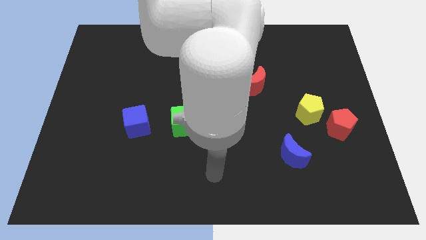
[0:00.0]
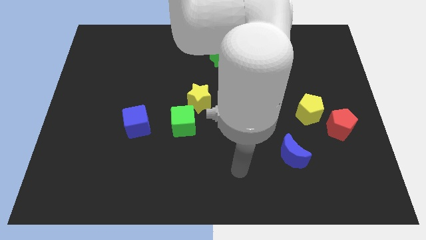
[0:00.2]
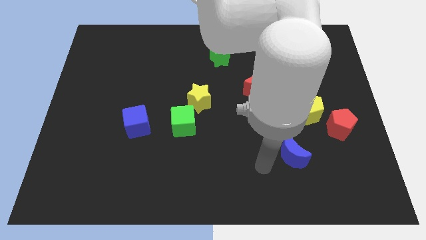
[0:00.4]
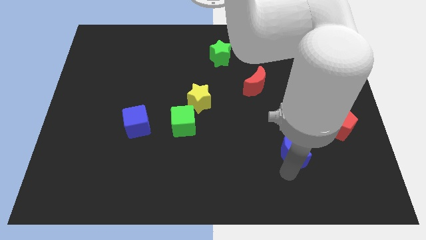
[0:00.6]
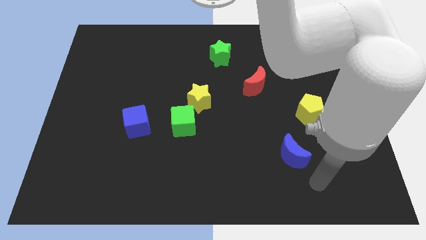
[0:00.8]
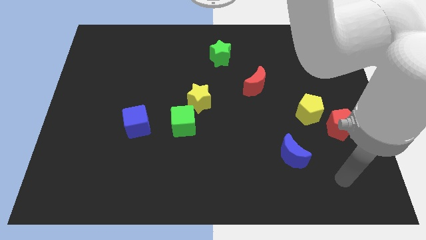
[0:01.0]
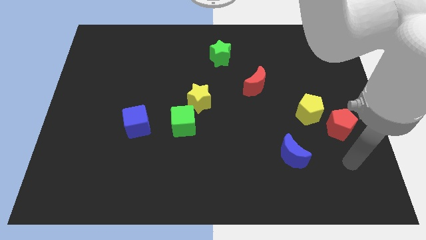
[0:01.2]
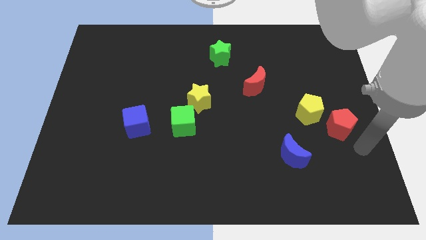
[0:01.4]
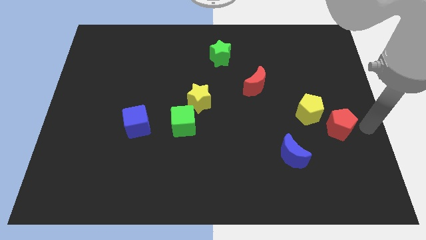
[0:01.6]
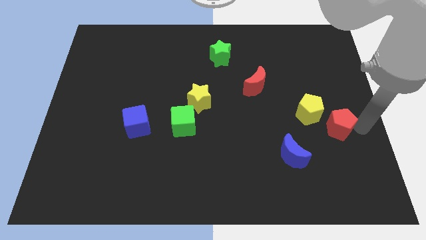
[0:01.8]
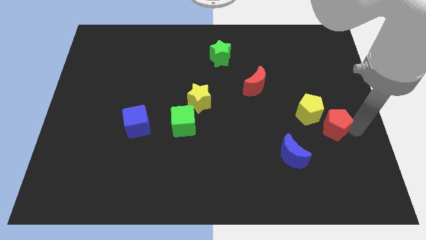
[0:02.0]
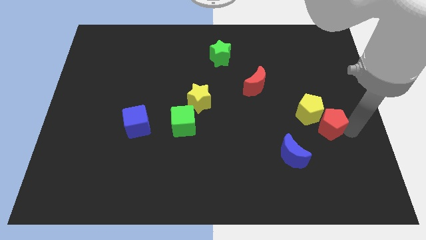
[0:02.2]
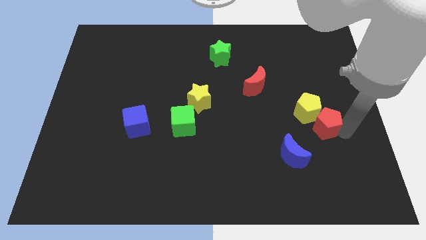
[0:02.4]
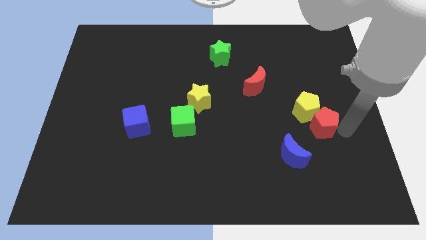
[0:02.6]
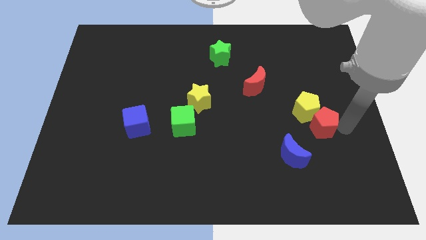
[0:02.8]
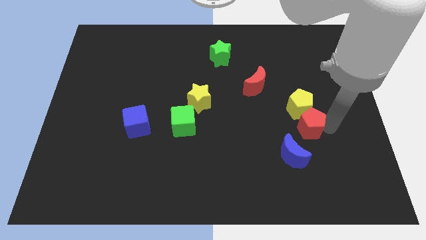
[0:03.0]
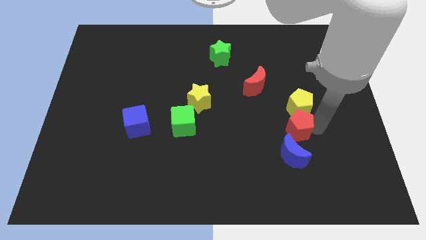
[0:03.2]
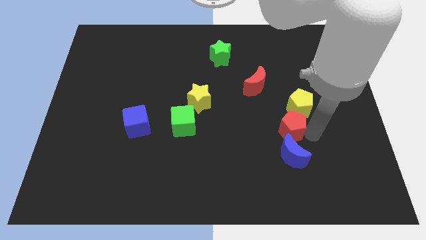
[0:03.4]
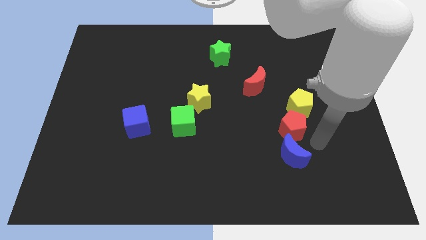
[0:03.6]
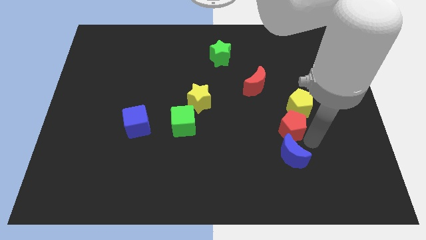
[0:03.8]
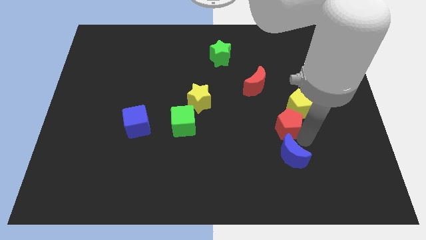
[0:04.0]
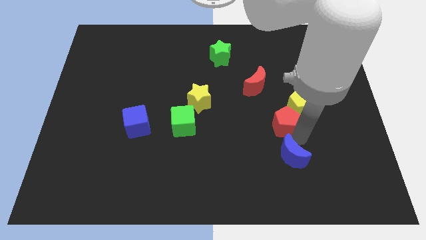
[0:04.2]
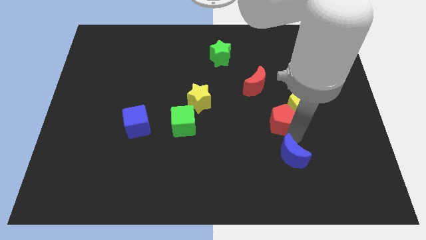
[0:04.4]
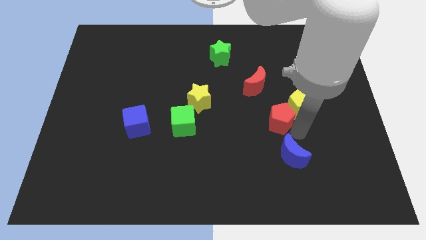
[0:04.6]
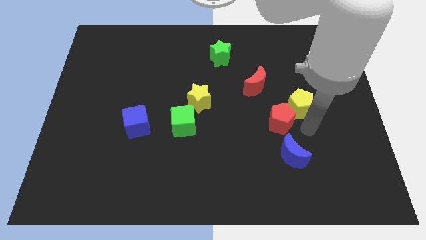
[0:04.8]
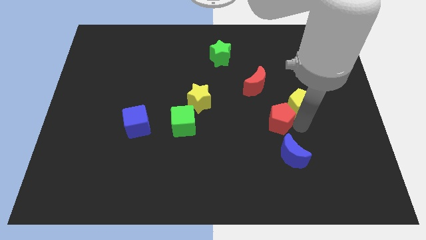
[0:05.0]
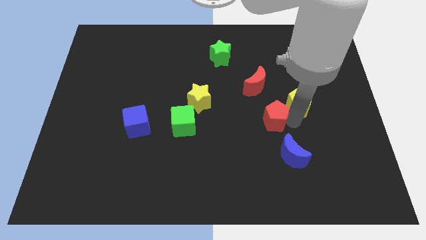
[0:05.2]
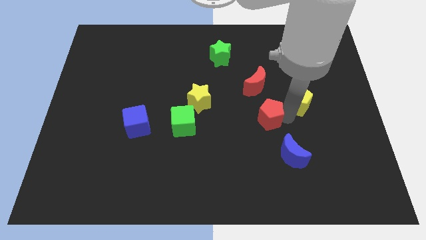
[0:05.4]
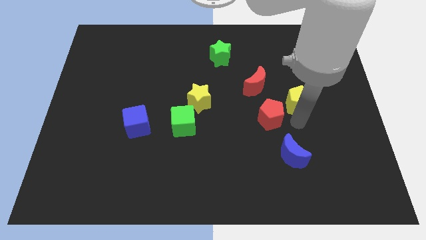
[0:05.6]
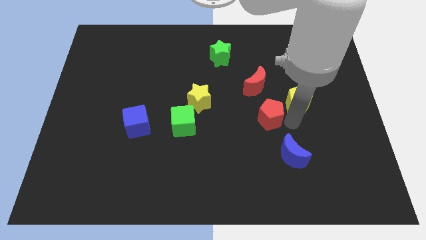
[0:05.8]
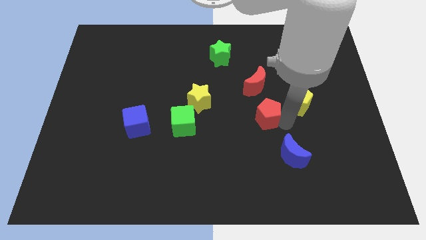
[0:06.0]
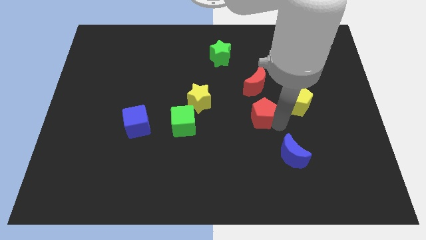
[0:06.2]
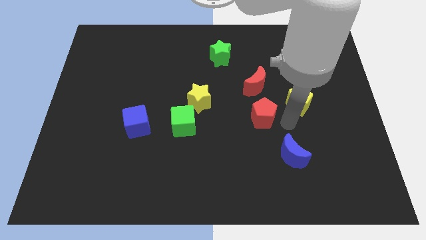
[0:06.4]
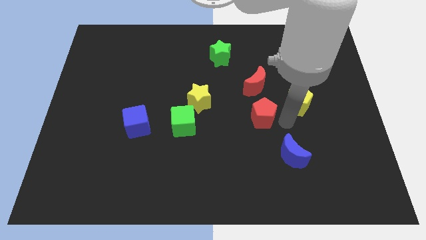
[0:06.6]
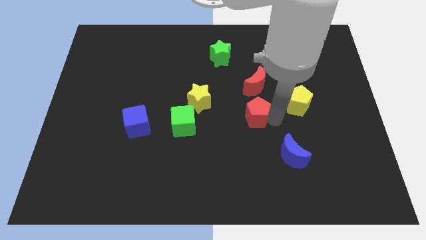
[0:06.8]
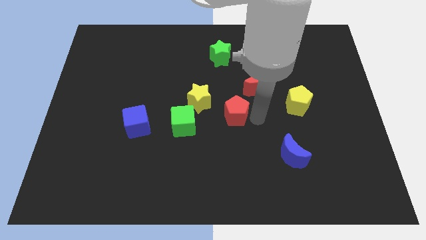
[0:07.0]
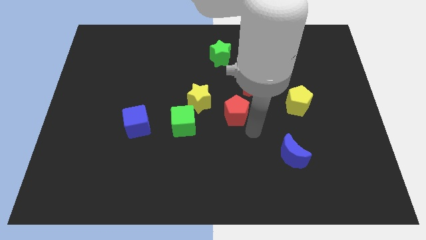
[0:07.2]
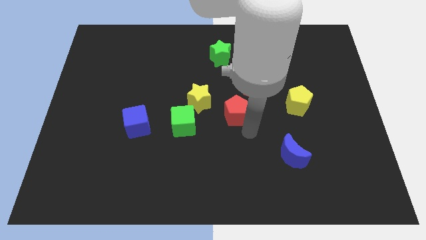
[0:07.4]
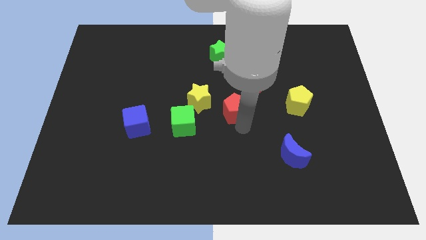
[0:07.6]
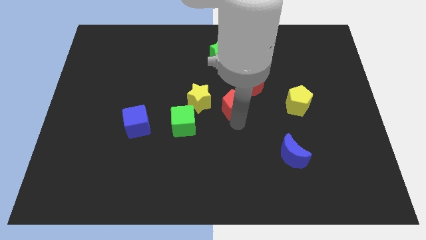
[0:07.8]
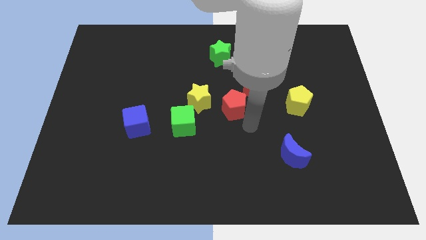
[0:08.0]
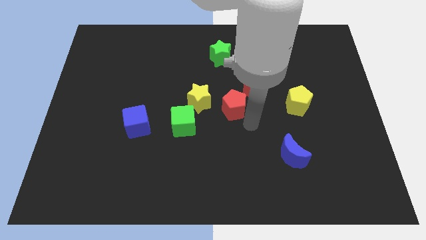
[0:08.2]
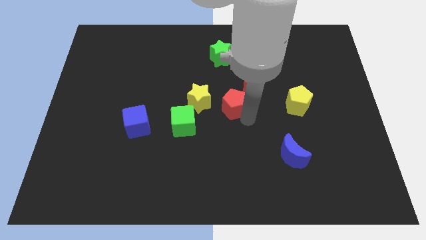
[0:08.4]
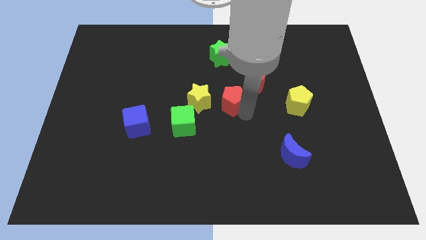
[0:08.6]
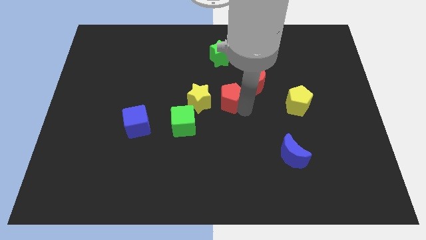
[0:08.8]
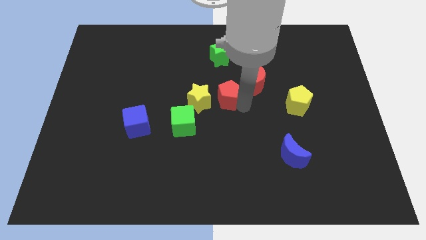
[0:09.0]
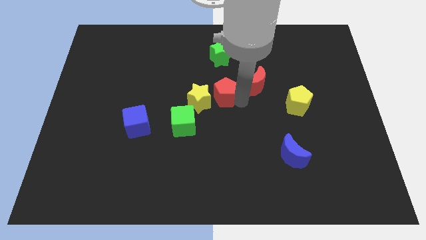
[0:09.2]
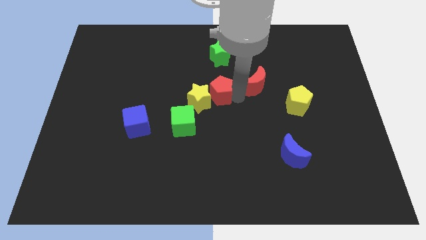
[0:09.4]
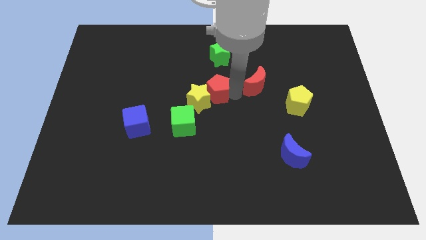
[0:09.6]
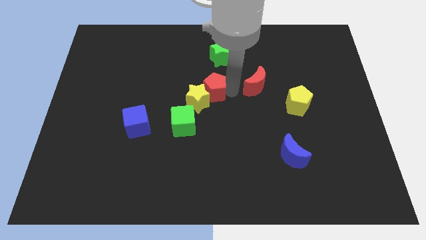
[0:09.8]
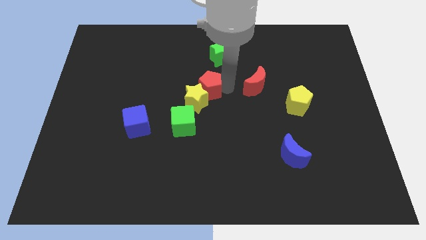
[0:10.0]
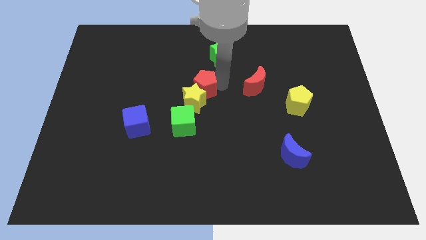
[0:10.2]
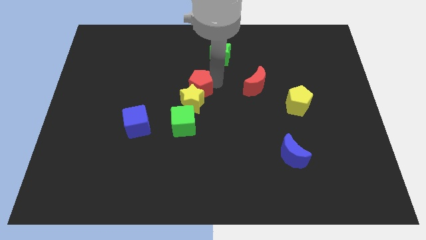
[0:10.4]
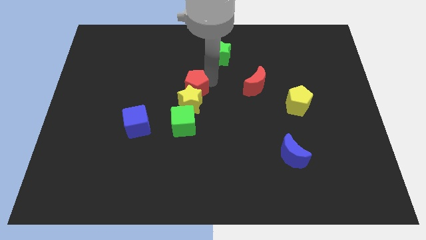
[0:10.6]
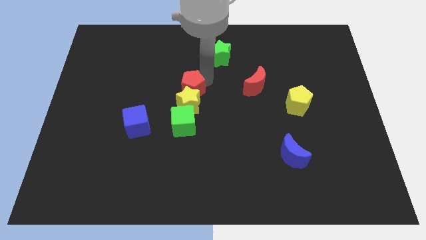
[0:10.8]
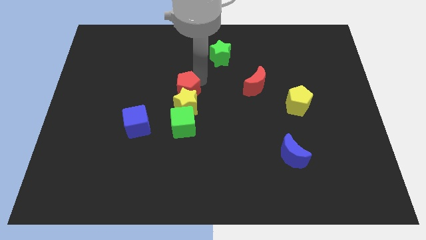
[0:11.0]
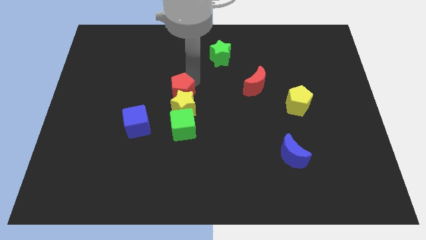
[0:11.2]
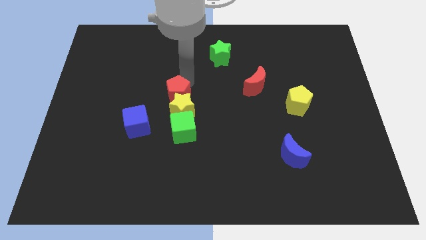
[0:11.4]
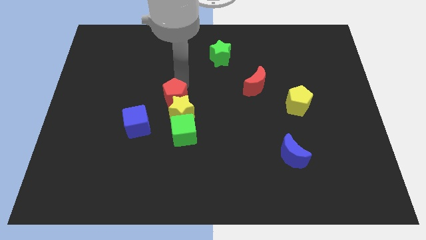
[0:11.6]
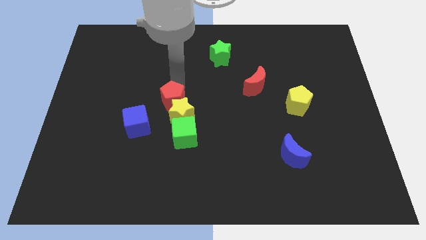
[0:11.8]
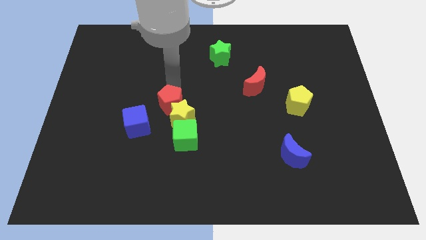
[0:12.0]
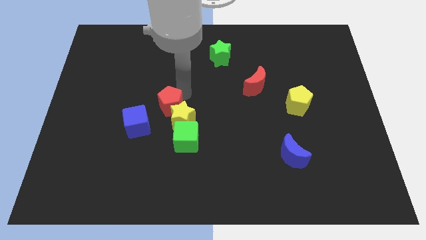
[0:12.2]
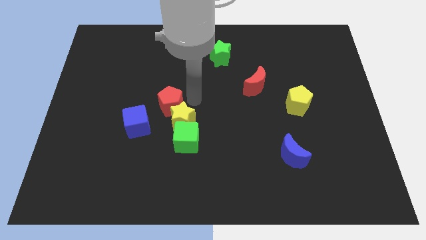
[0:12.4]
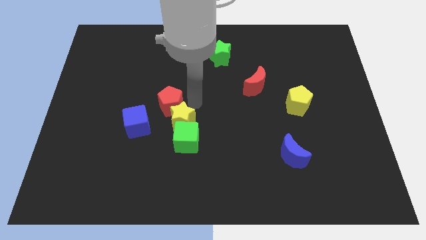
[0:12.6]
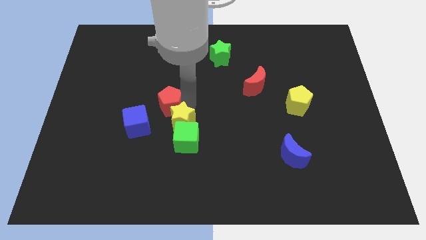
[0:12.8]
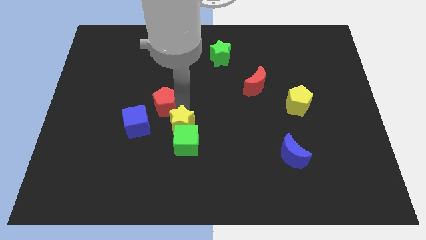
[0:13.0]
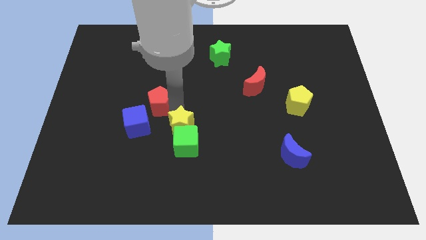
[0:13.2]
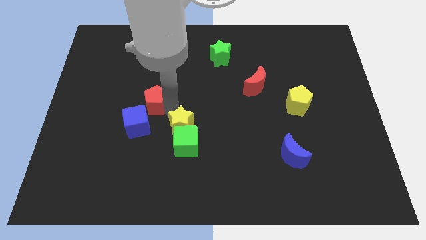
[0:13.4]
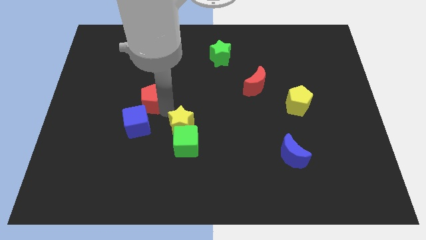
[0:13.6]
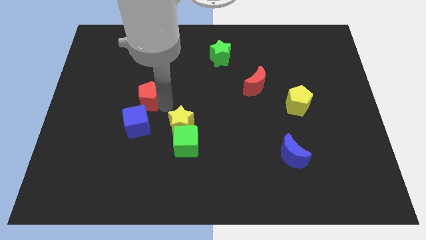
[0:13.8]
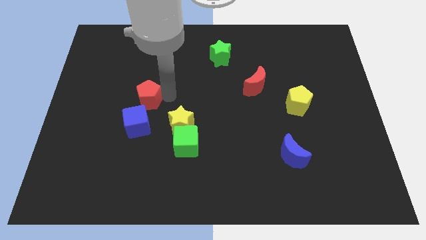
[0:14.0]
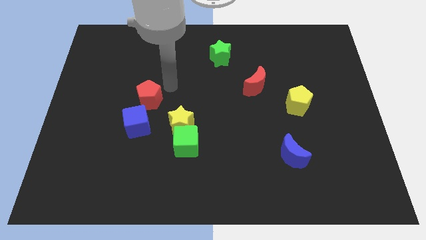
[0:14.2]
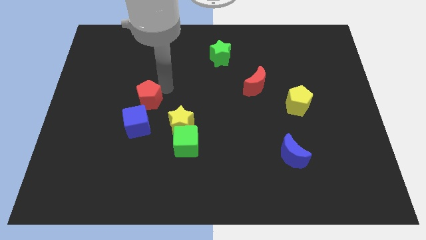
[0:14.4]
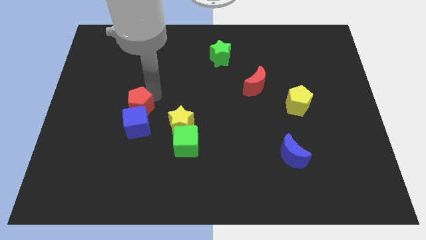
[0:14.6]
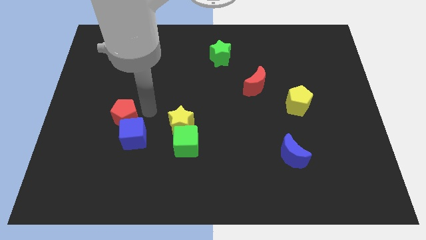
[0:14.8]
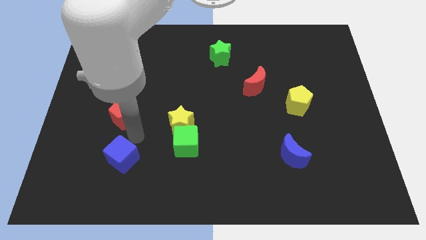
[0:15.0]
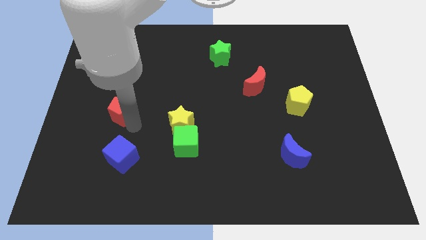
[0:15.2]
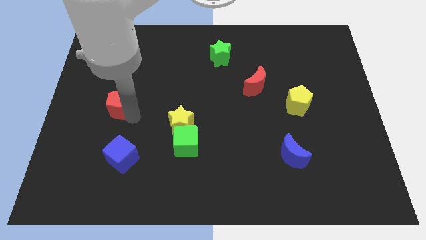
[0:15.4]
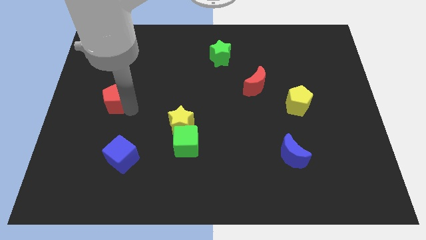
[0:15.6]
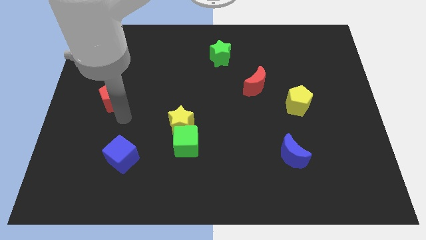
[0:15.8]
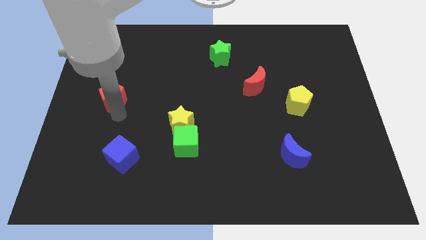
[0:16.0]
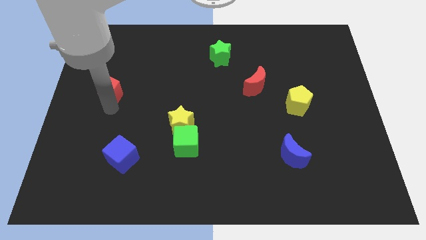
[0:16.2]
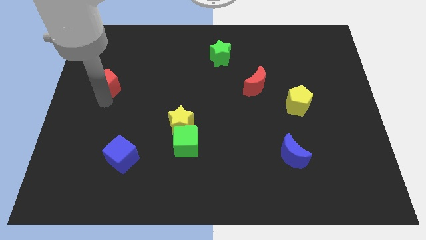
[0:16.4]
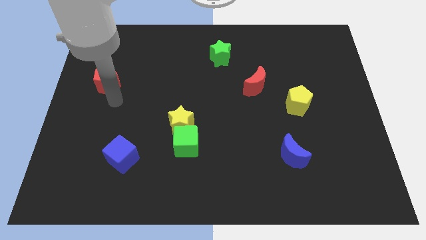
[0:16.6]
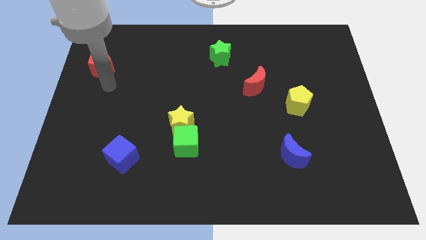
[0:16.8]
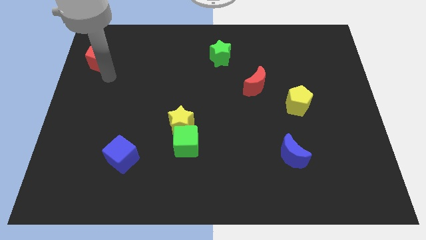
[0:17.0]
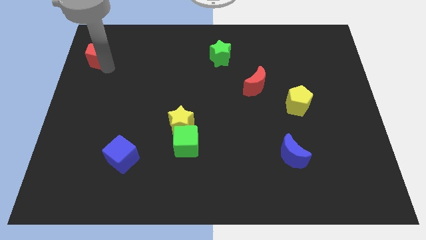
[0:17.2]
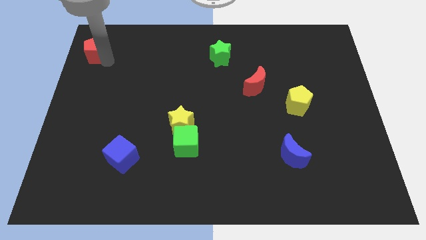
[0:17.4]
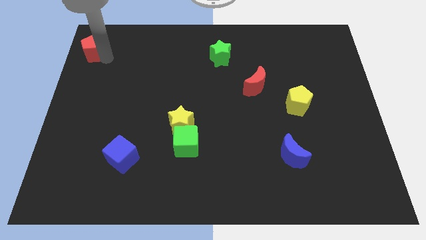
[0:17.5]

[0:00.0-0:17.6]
move the red pentagon to the top left corner
